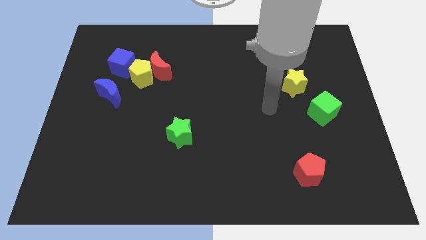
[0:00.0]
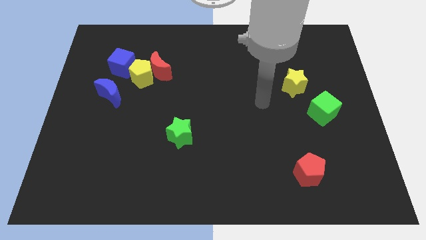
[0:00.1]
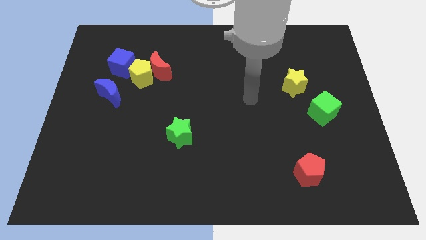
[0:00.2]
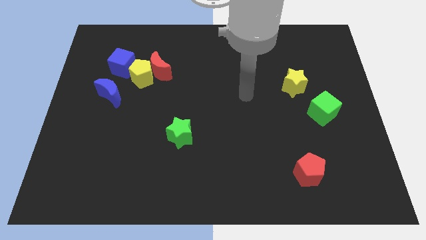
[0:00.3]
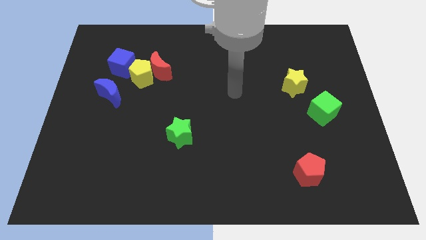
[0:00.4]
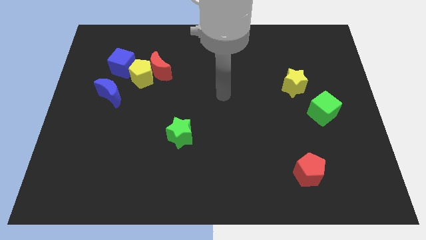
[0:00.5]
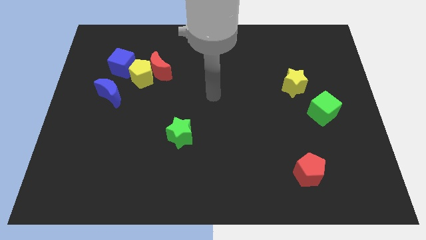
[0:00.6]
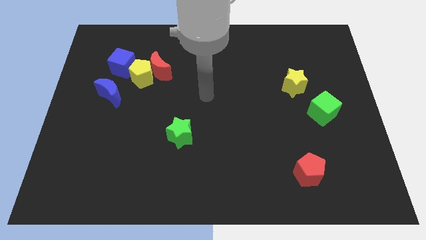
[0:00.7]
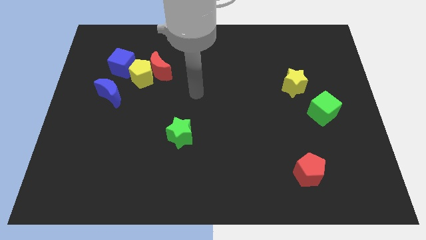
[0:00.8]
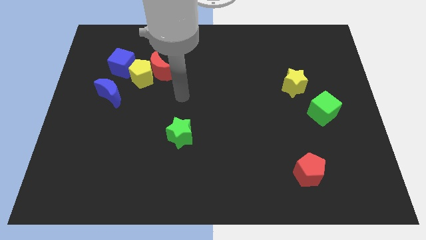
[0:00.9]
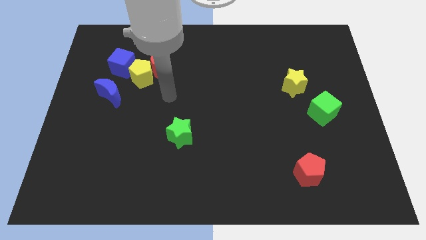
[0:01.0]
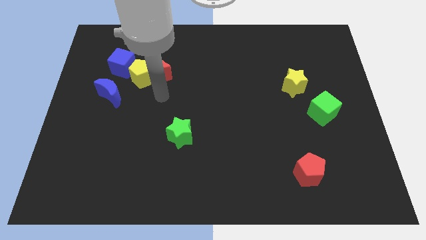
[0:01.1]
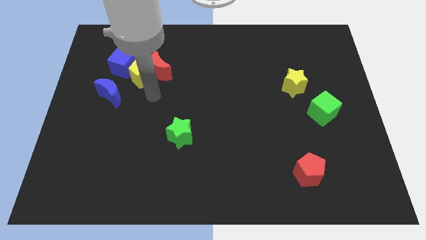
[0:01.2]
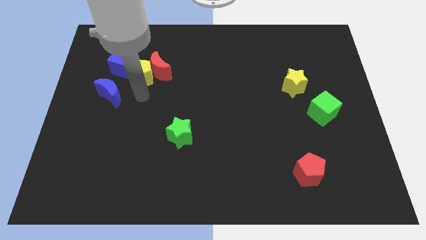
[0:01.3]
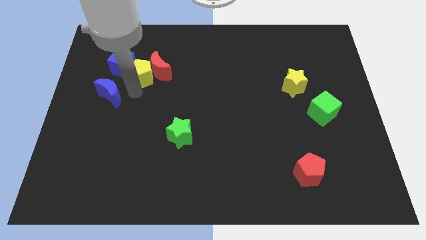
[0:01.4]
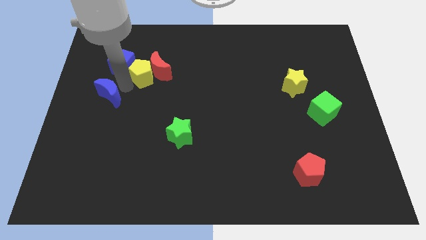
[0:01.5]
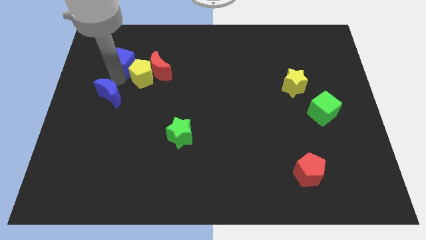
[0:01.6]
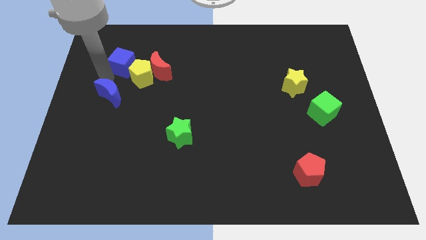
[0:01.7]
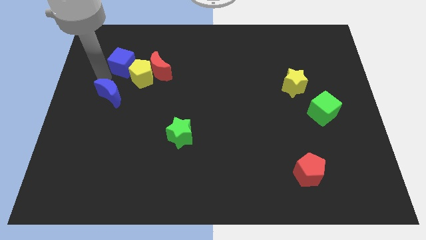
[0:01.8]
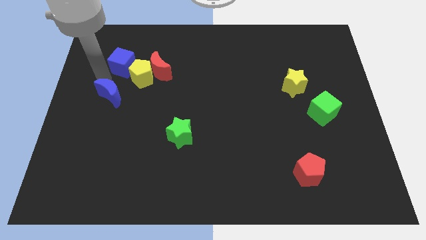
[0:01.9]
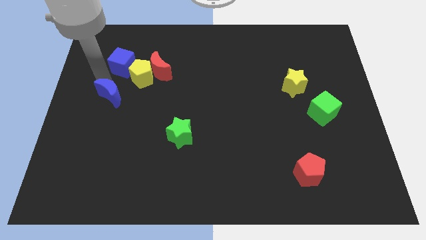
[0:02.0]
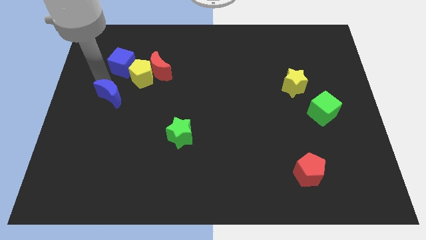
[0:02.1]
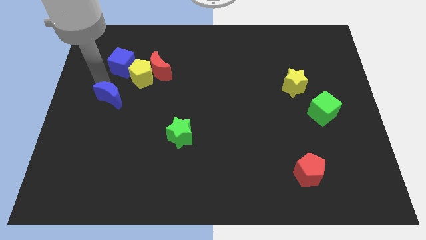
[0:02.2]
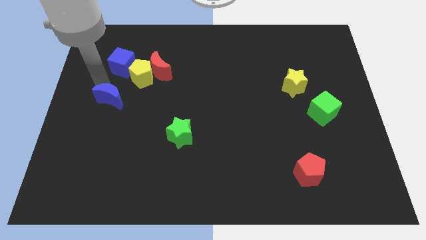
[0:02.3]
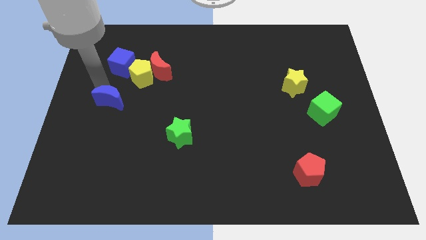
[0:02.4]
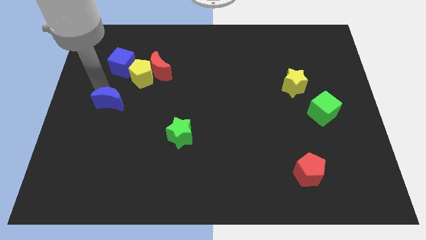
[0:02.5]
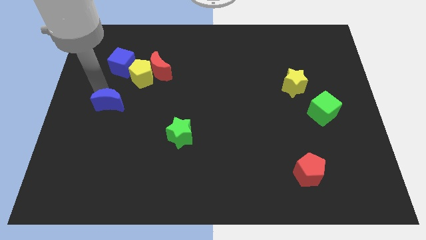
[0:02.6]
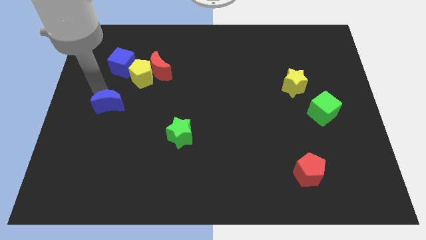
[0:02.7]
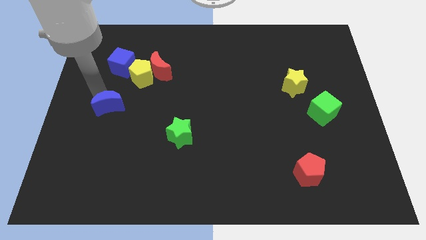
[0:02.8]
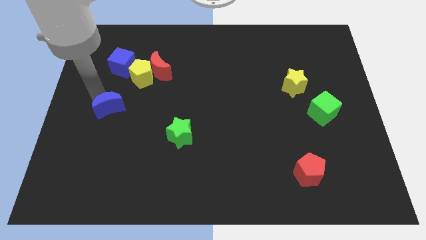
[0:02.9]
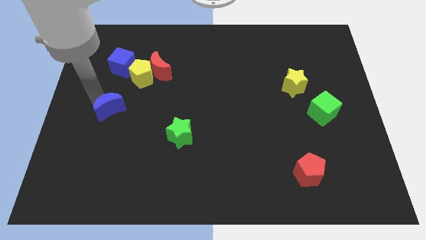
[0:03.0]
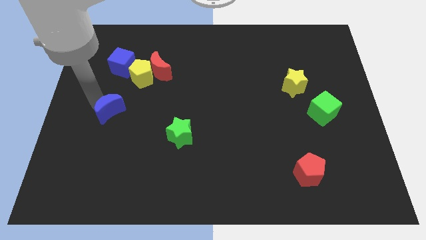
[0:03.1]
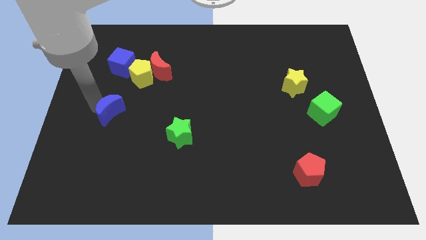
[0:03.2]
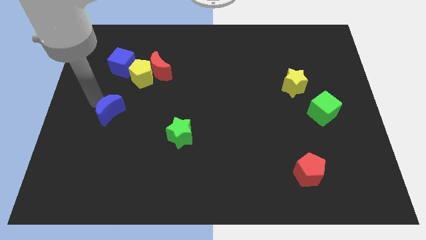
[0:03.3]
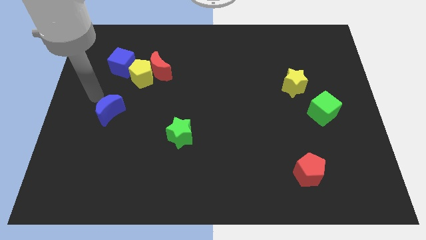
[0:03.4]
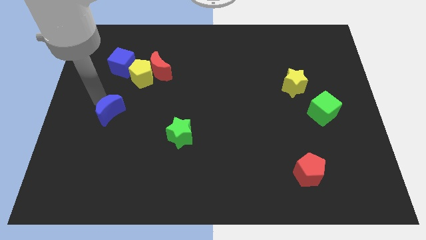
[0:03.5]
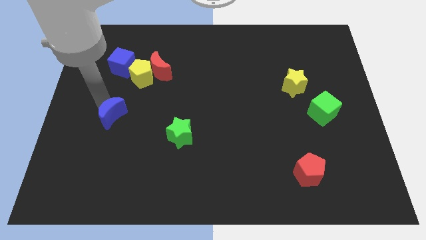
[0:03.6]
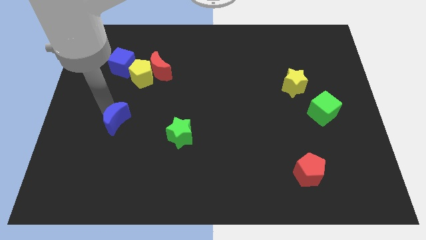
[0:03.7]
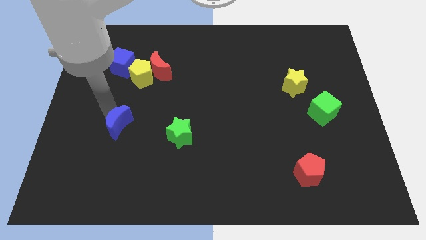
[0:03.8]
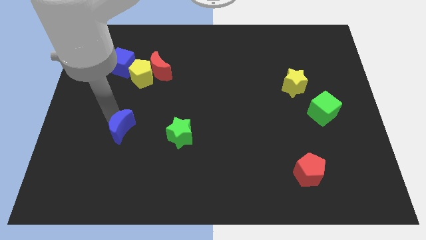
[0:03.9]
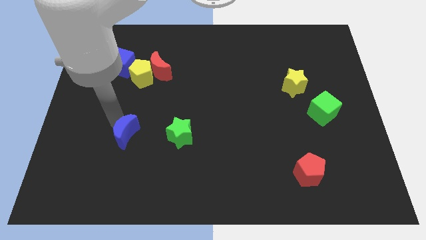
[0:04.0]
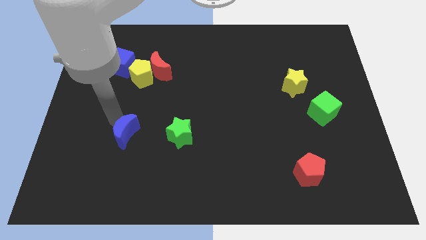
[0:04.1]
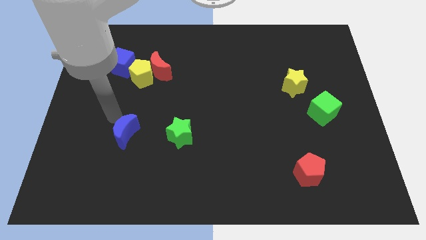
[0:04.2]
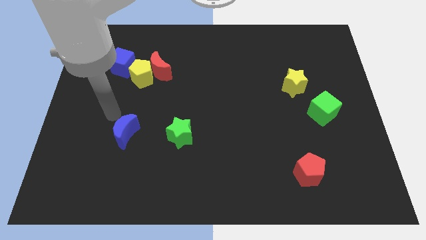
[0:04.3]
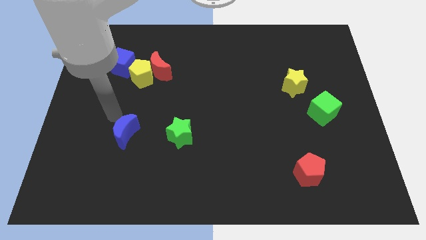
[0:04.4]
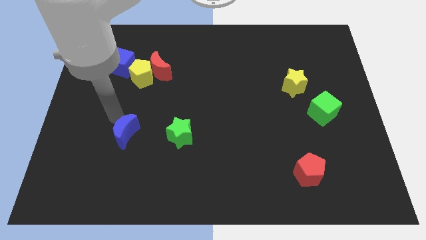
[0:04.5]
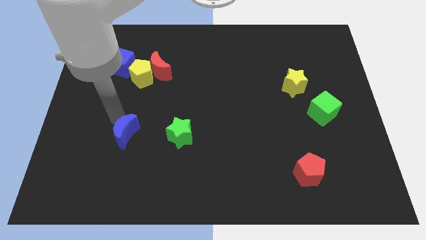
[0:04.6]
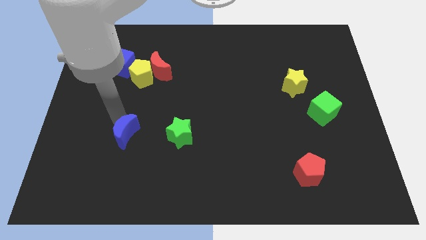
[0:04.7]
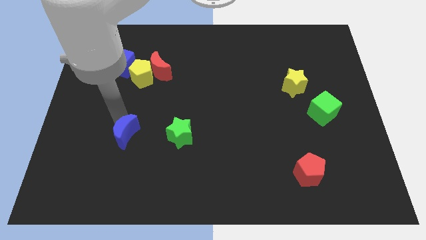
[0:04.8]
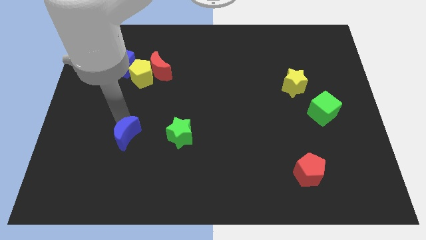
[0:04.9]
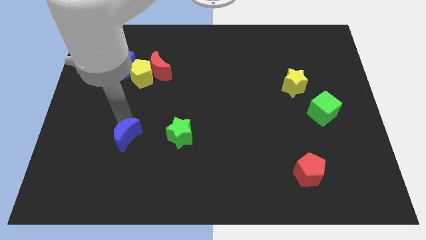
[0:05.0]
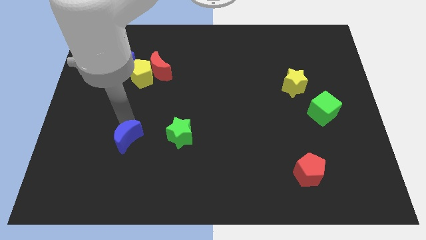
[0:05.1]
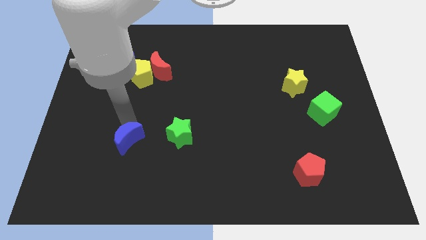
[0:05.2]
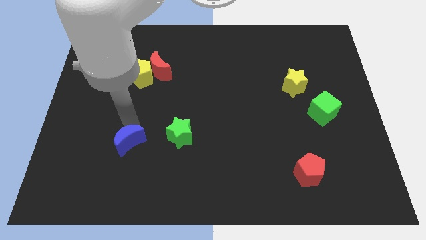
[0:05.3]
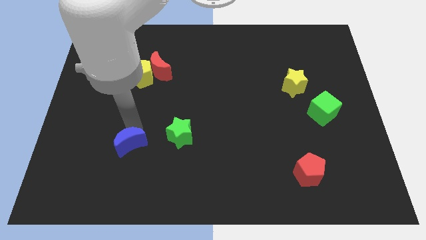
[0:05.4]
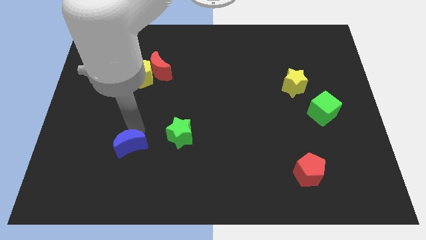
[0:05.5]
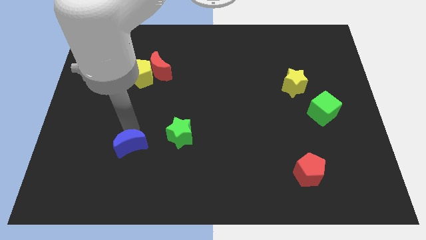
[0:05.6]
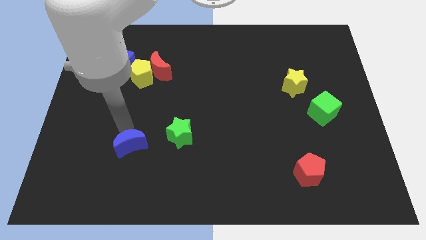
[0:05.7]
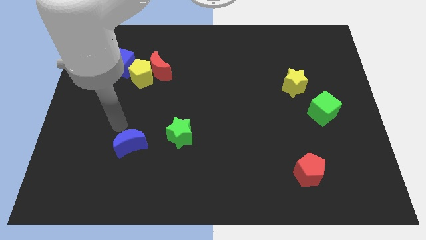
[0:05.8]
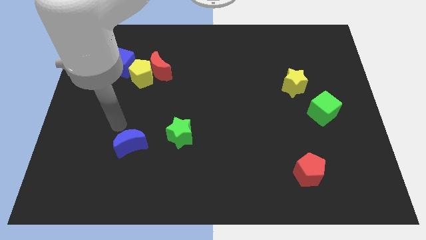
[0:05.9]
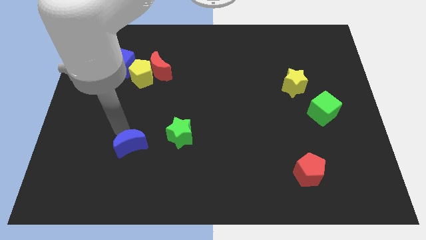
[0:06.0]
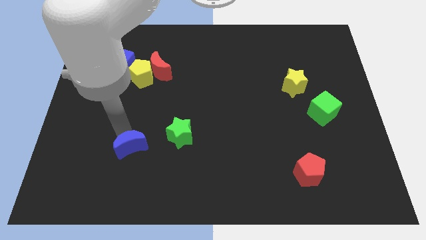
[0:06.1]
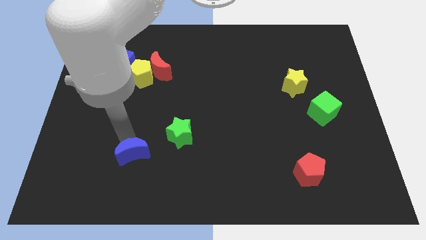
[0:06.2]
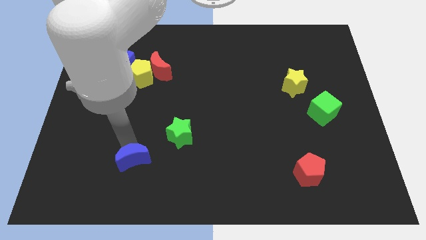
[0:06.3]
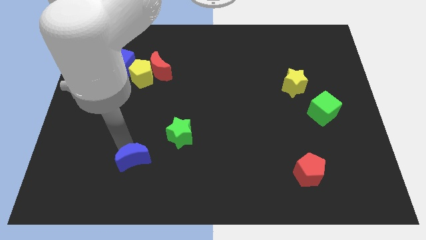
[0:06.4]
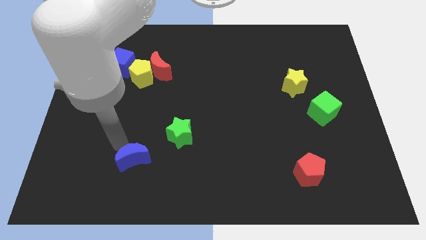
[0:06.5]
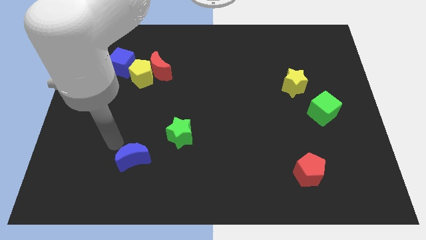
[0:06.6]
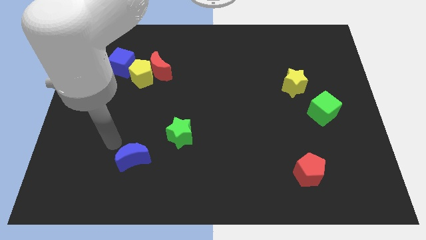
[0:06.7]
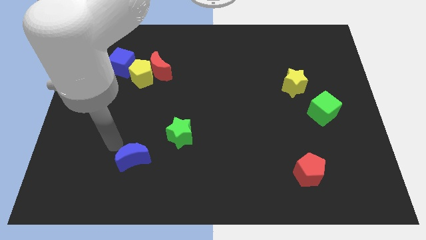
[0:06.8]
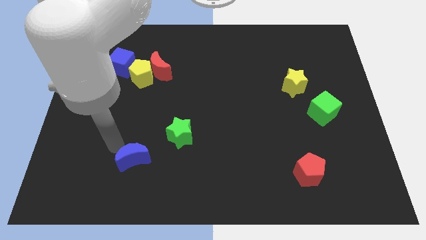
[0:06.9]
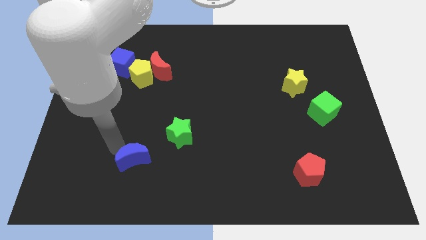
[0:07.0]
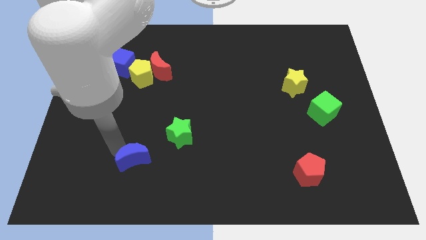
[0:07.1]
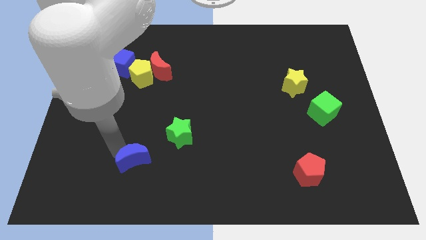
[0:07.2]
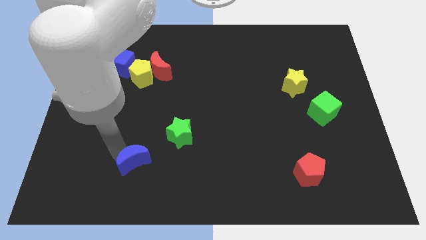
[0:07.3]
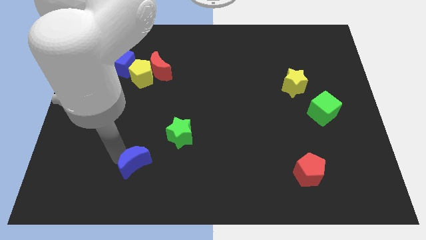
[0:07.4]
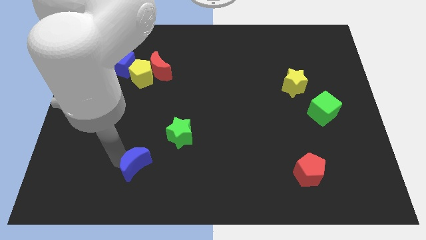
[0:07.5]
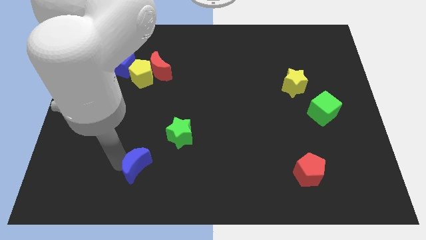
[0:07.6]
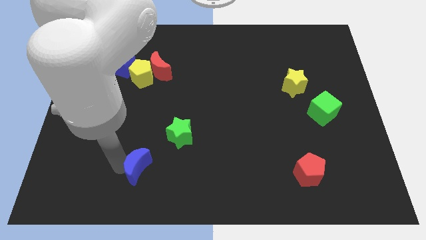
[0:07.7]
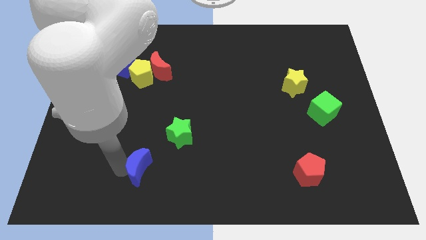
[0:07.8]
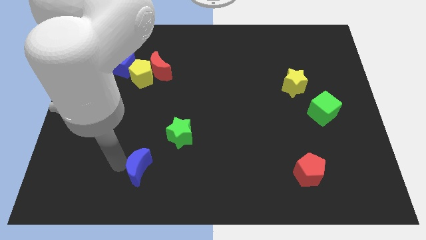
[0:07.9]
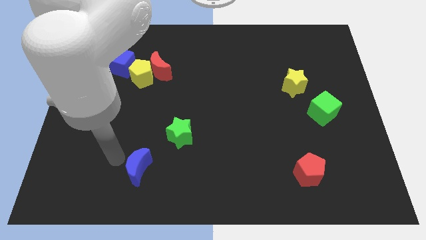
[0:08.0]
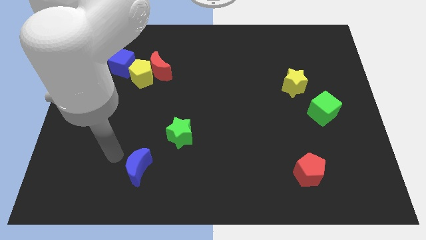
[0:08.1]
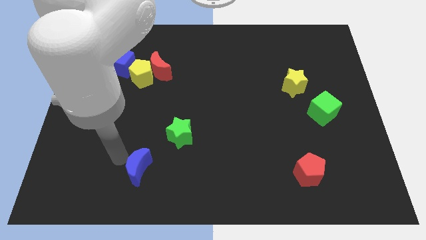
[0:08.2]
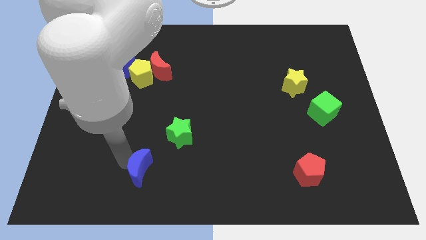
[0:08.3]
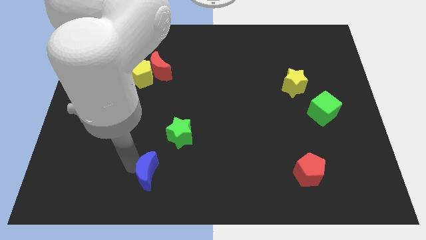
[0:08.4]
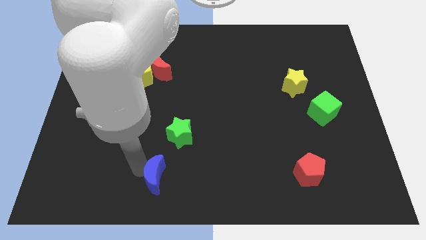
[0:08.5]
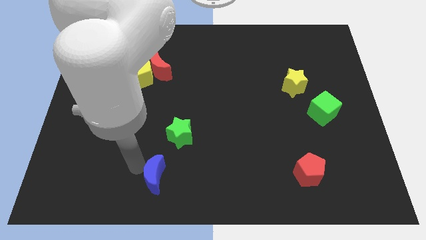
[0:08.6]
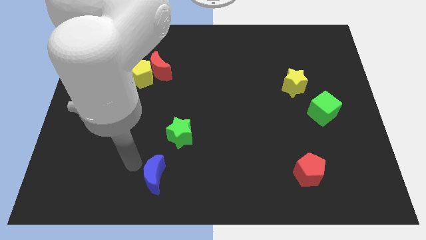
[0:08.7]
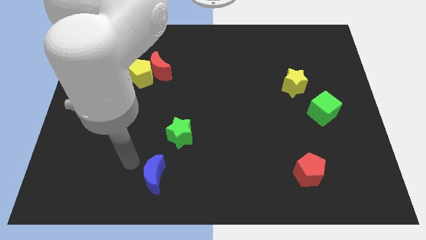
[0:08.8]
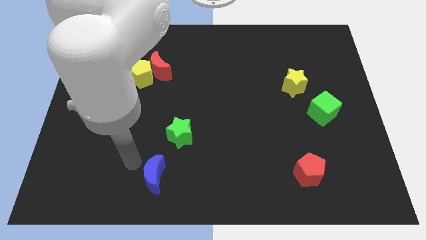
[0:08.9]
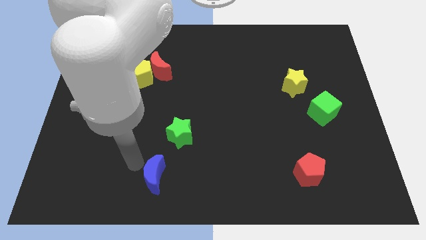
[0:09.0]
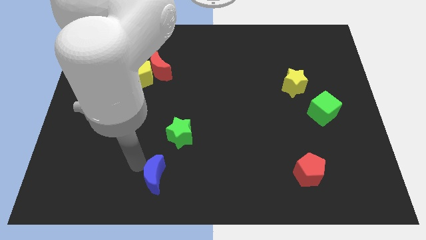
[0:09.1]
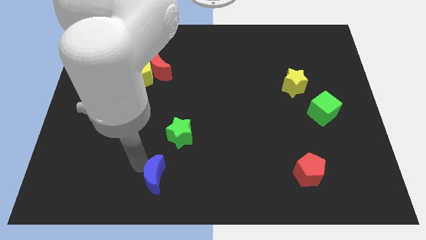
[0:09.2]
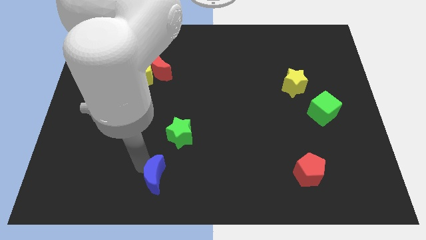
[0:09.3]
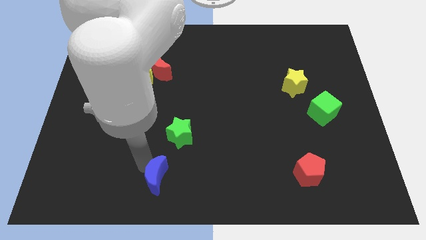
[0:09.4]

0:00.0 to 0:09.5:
put the blue moon to the bottom
